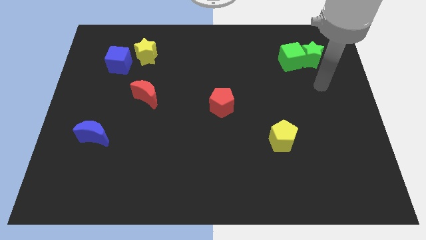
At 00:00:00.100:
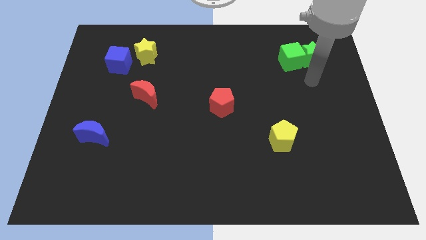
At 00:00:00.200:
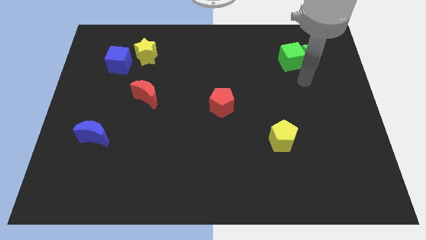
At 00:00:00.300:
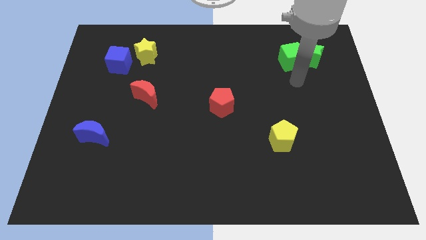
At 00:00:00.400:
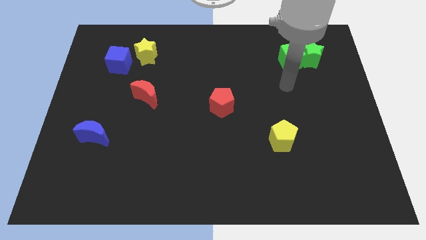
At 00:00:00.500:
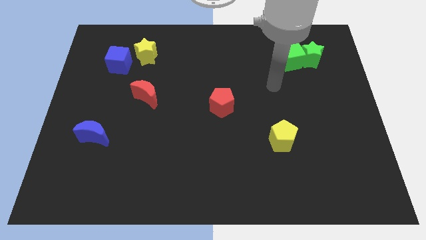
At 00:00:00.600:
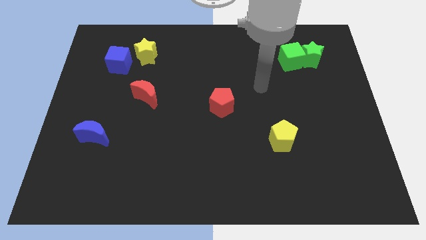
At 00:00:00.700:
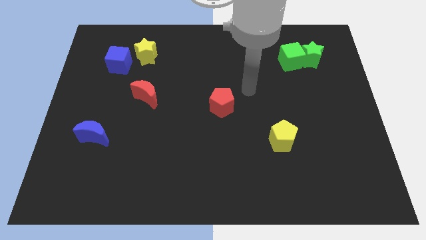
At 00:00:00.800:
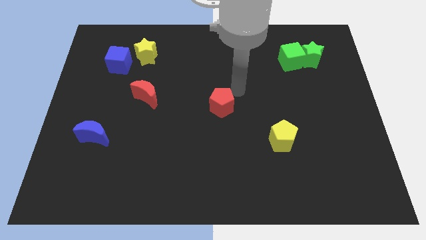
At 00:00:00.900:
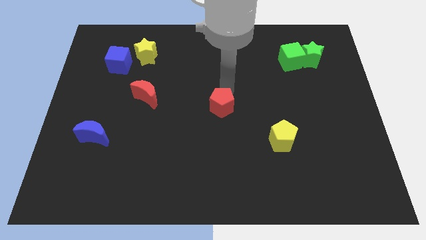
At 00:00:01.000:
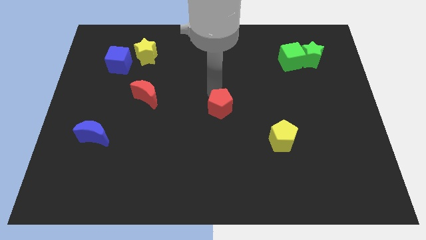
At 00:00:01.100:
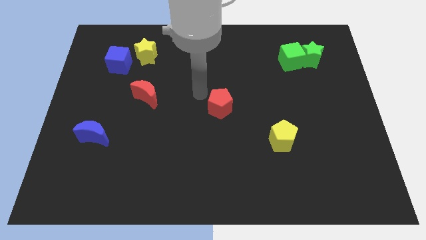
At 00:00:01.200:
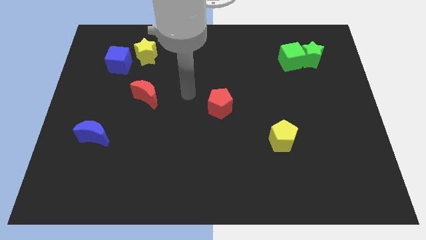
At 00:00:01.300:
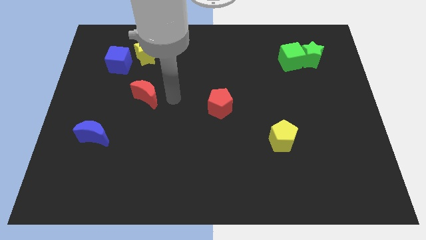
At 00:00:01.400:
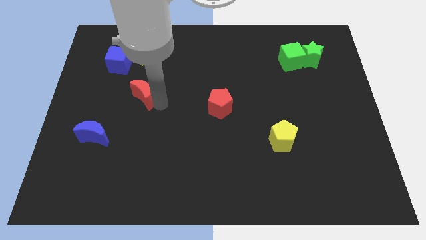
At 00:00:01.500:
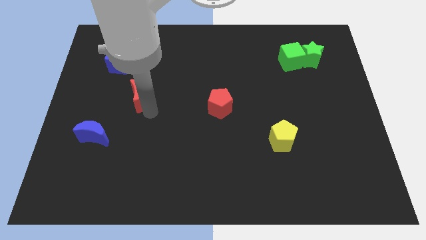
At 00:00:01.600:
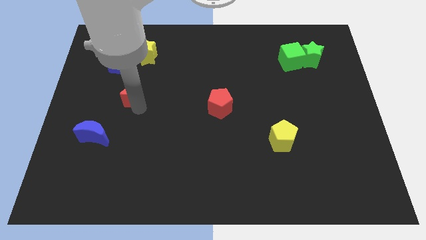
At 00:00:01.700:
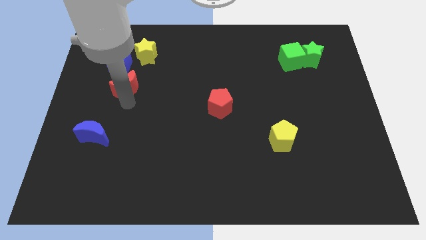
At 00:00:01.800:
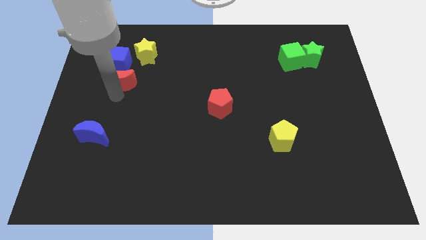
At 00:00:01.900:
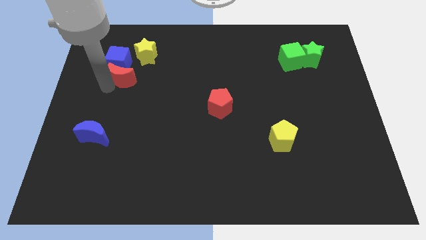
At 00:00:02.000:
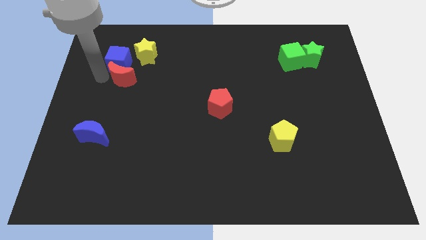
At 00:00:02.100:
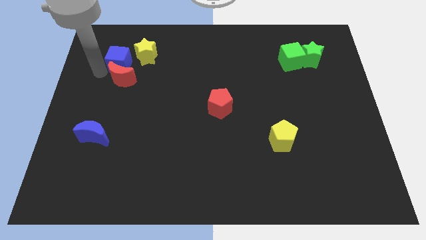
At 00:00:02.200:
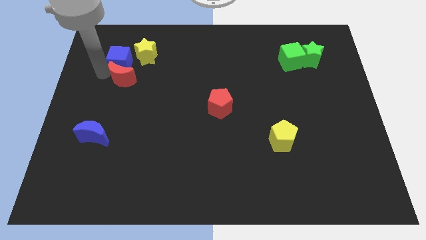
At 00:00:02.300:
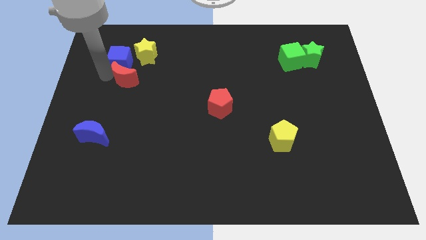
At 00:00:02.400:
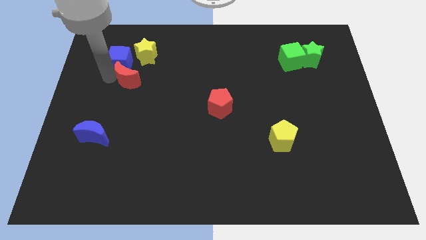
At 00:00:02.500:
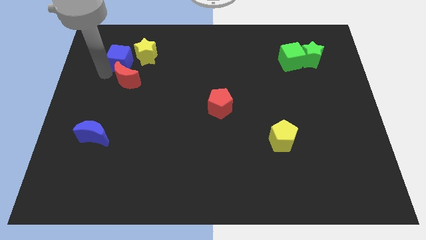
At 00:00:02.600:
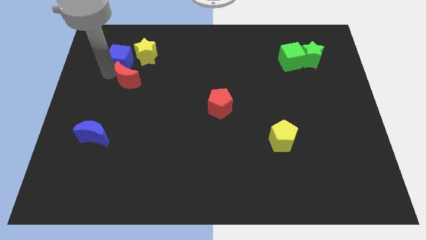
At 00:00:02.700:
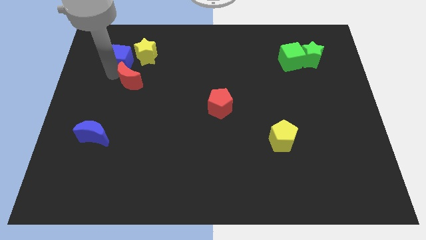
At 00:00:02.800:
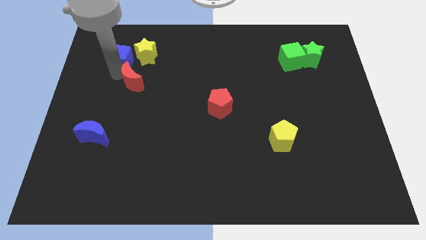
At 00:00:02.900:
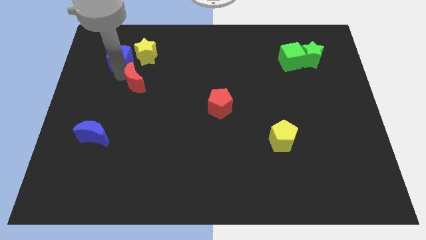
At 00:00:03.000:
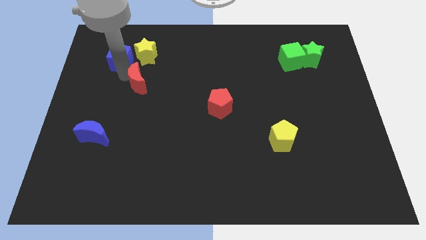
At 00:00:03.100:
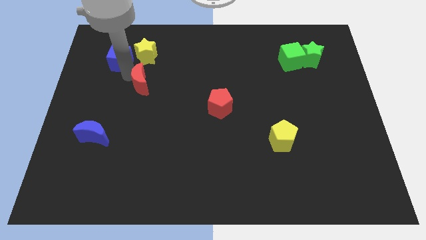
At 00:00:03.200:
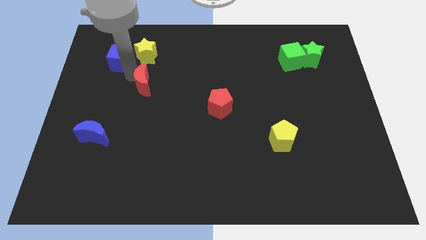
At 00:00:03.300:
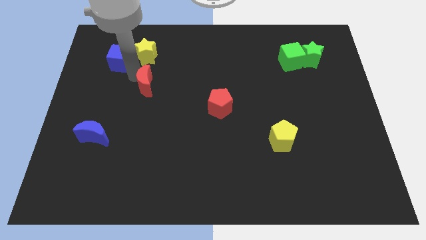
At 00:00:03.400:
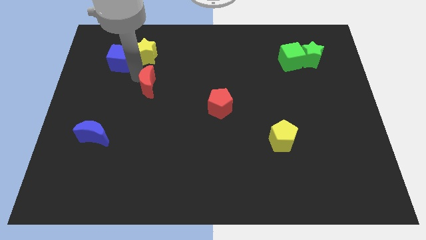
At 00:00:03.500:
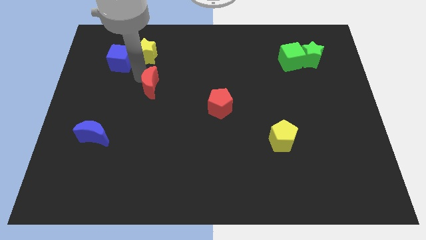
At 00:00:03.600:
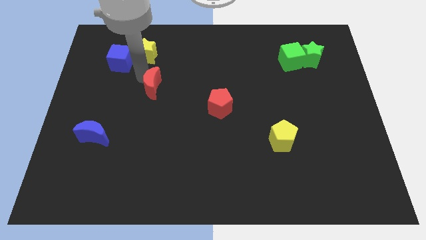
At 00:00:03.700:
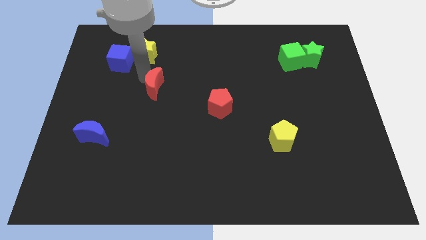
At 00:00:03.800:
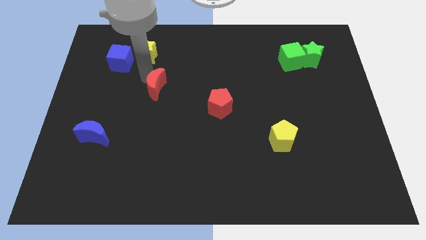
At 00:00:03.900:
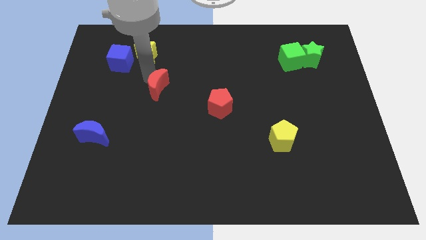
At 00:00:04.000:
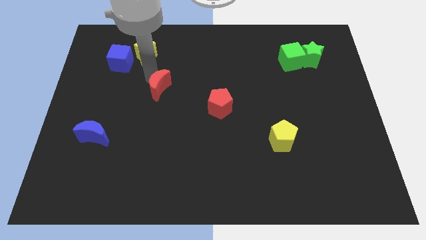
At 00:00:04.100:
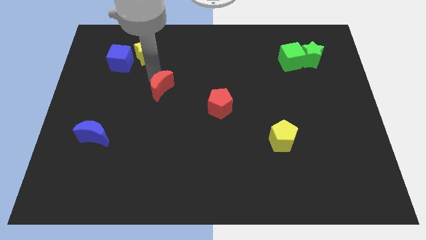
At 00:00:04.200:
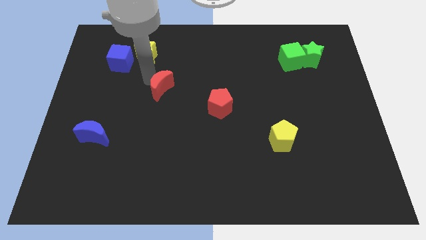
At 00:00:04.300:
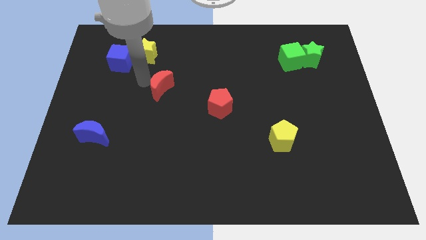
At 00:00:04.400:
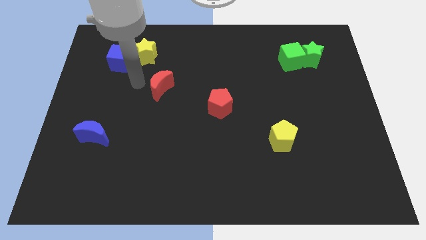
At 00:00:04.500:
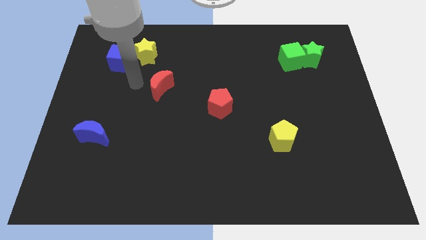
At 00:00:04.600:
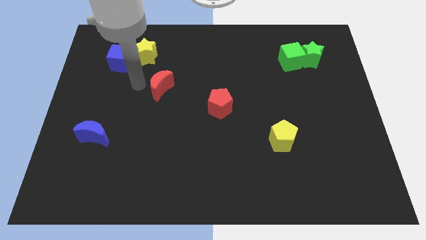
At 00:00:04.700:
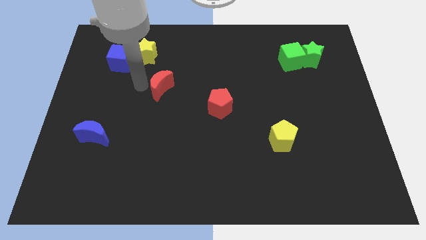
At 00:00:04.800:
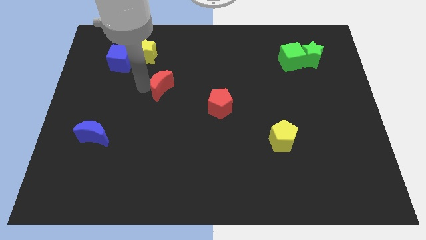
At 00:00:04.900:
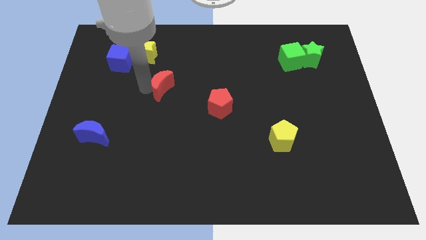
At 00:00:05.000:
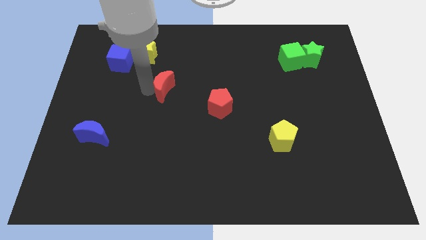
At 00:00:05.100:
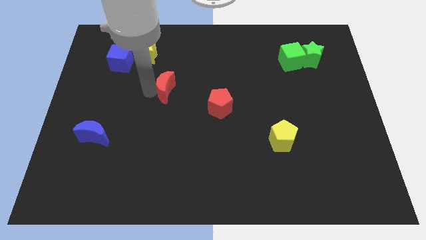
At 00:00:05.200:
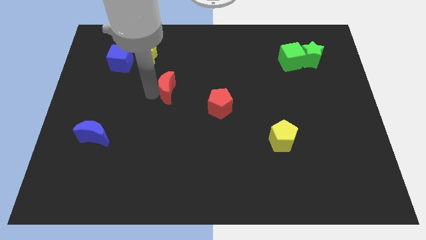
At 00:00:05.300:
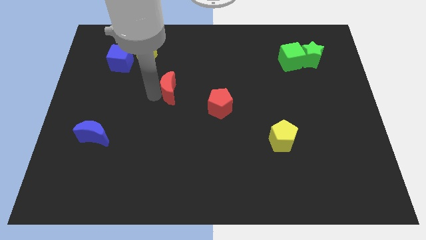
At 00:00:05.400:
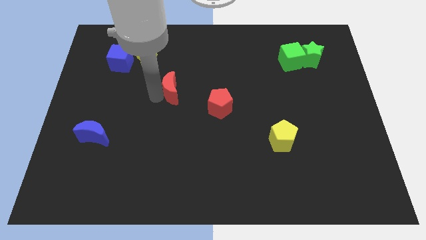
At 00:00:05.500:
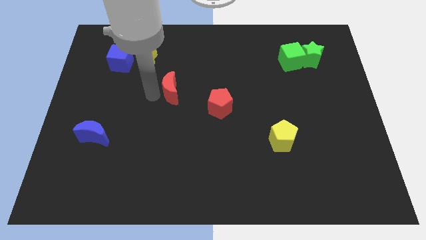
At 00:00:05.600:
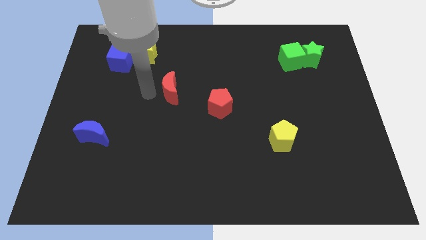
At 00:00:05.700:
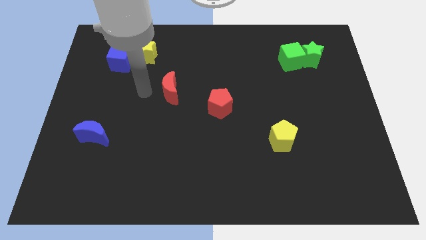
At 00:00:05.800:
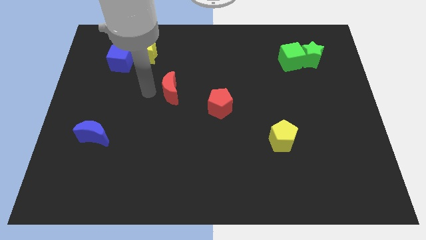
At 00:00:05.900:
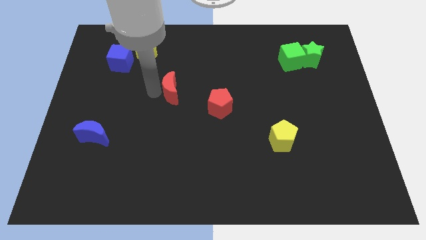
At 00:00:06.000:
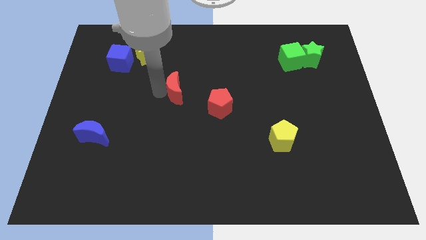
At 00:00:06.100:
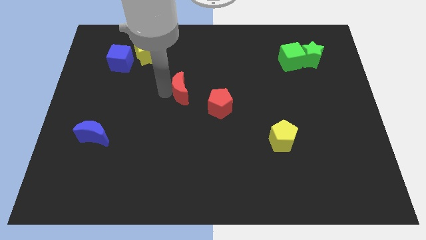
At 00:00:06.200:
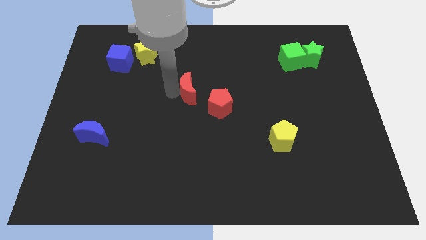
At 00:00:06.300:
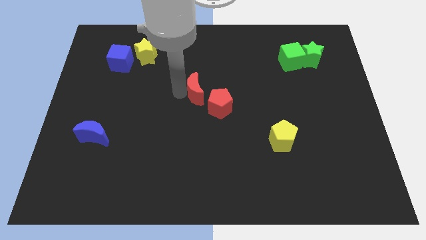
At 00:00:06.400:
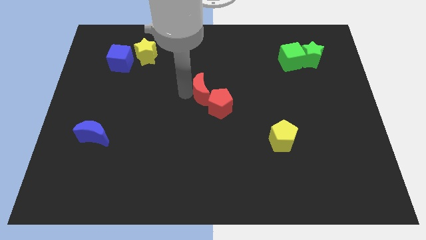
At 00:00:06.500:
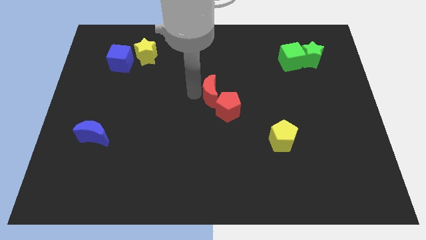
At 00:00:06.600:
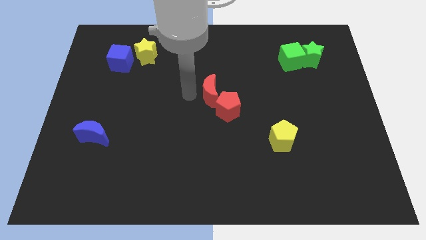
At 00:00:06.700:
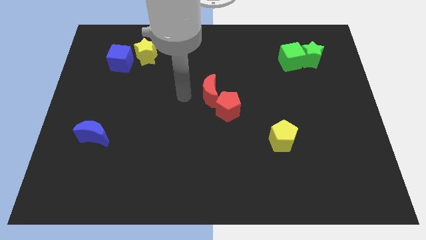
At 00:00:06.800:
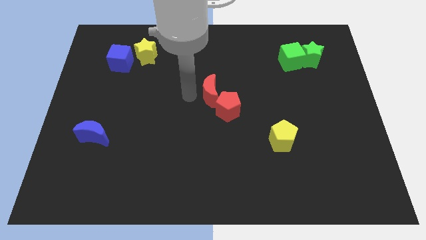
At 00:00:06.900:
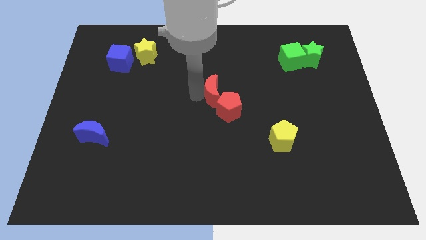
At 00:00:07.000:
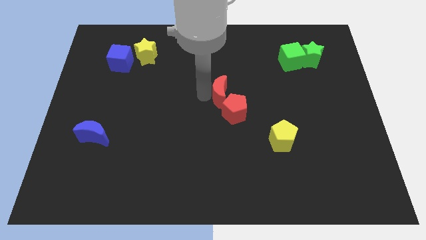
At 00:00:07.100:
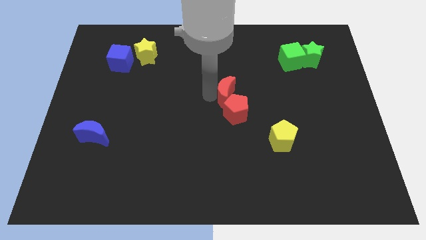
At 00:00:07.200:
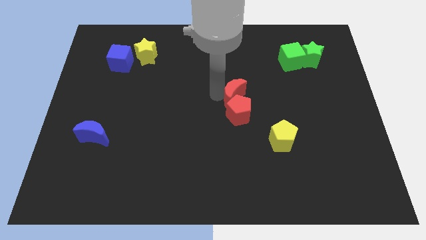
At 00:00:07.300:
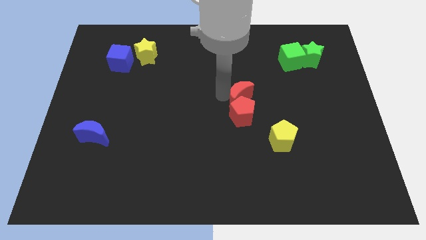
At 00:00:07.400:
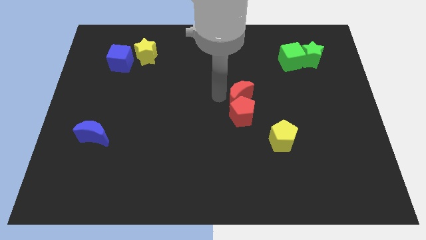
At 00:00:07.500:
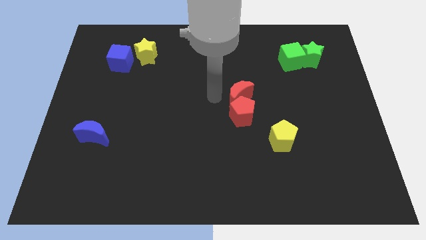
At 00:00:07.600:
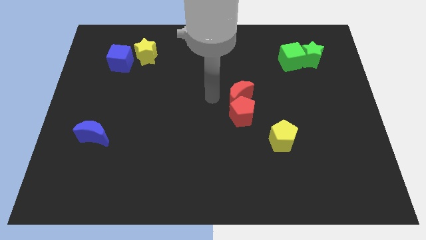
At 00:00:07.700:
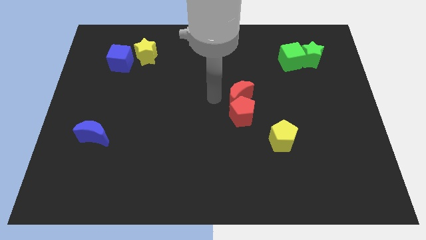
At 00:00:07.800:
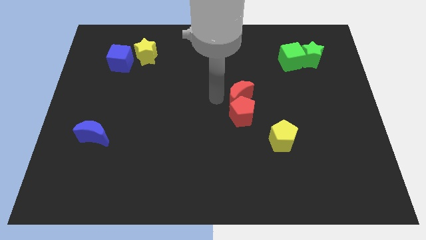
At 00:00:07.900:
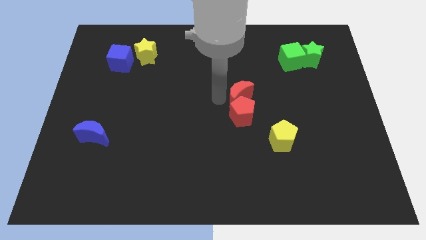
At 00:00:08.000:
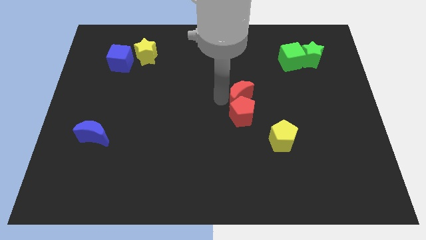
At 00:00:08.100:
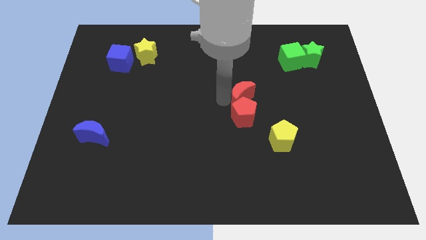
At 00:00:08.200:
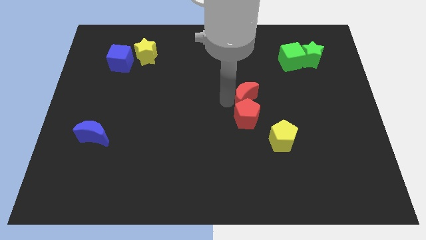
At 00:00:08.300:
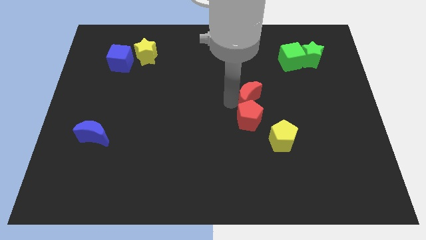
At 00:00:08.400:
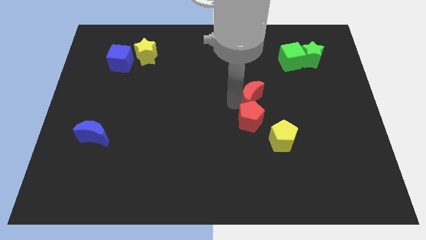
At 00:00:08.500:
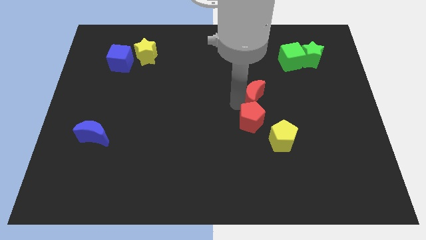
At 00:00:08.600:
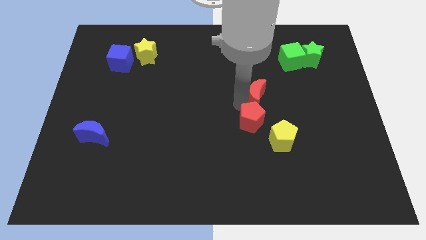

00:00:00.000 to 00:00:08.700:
put the red moon to the top side of the yellow pentagon
